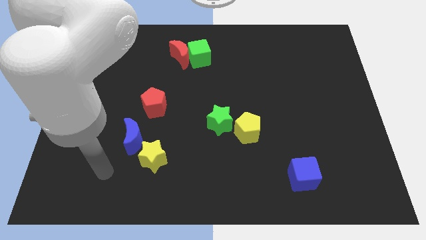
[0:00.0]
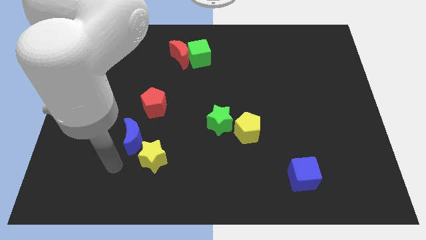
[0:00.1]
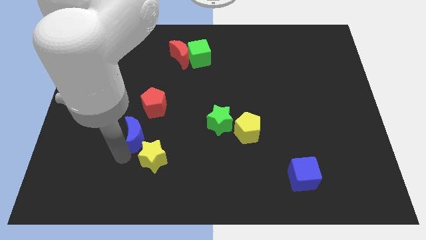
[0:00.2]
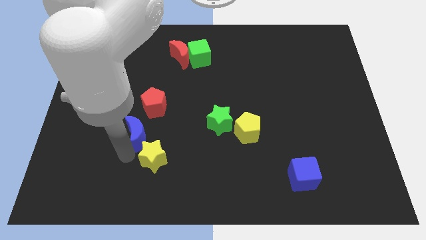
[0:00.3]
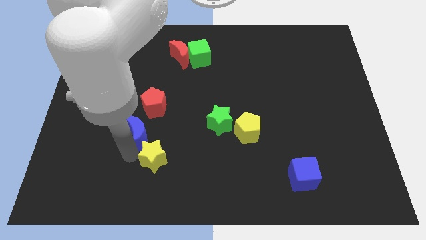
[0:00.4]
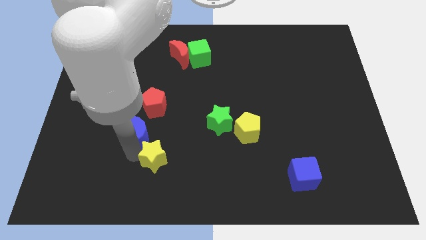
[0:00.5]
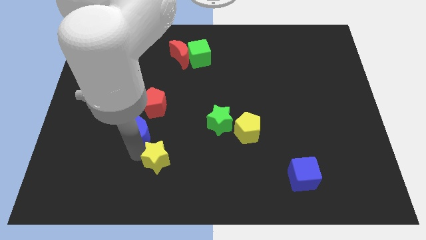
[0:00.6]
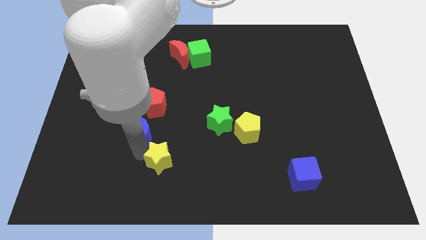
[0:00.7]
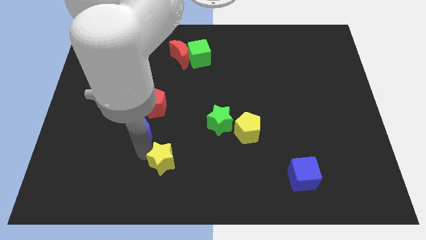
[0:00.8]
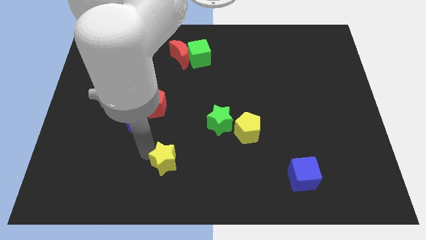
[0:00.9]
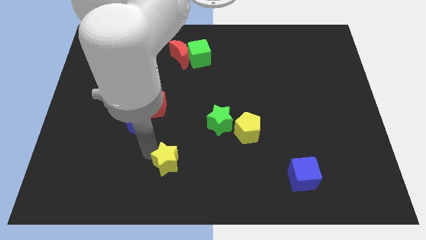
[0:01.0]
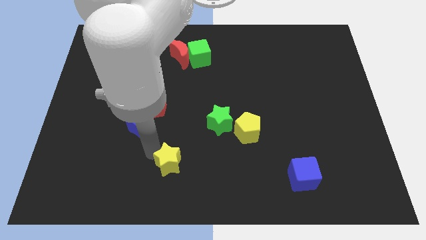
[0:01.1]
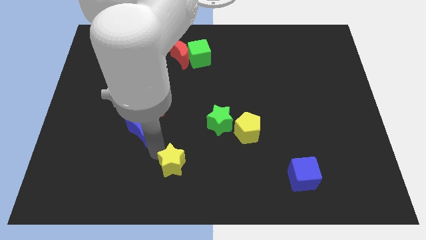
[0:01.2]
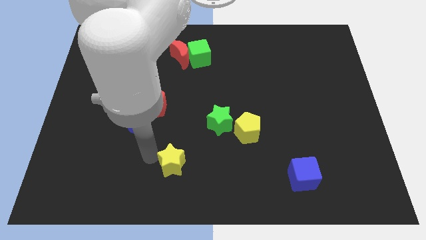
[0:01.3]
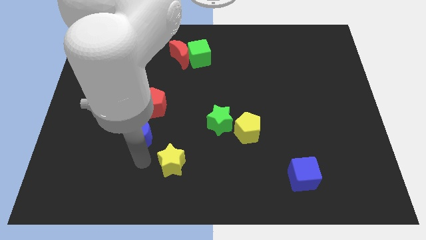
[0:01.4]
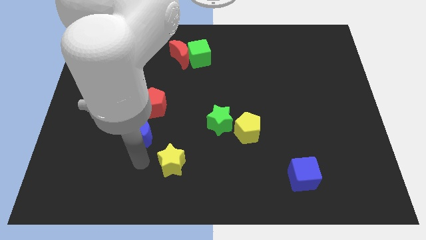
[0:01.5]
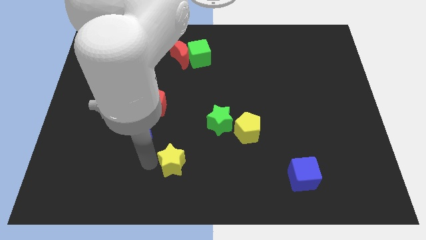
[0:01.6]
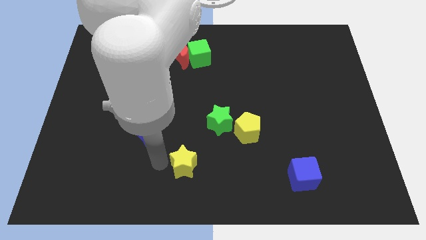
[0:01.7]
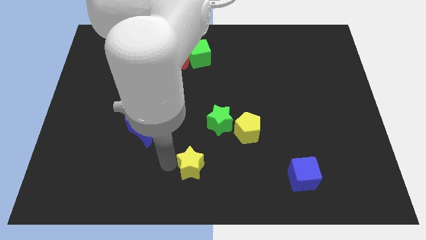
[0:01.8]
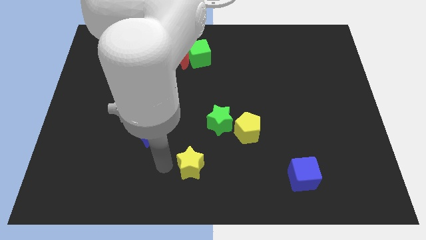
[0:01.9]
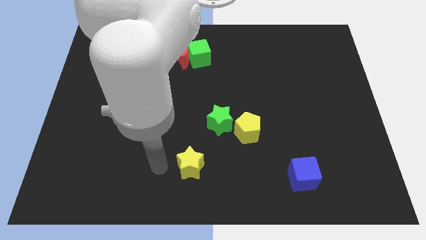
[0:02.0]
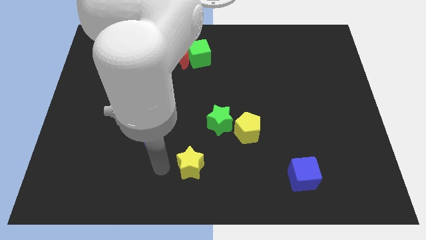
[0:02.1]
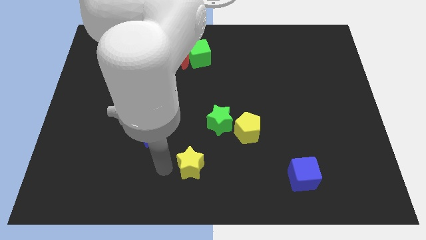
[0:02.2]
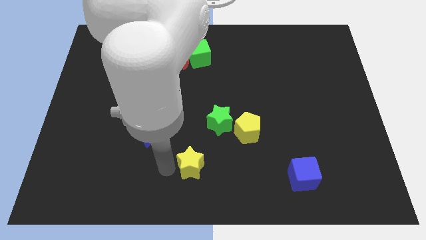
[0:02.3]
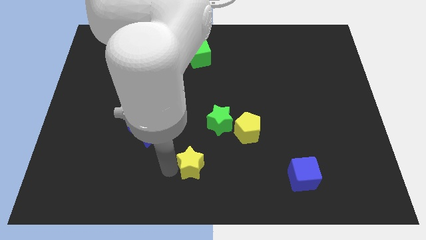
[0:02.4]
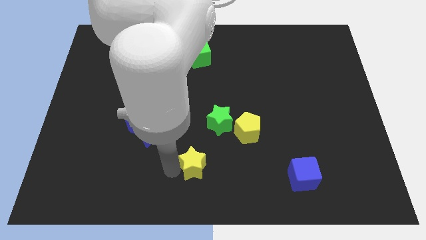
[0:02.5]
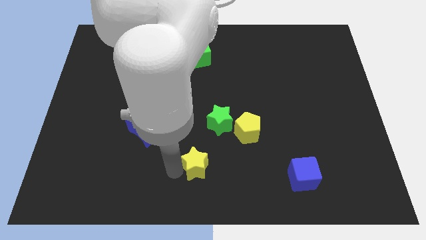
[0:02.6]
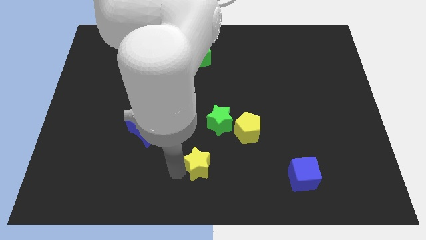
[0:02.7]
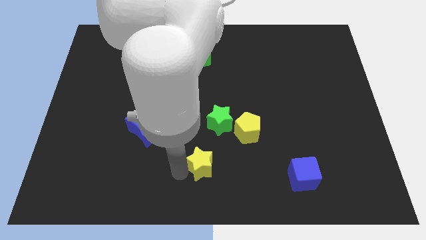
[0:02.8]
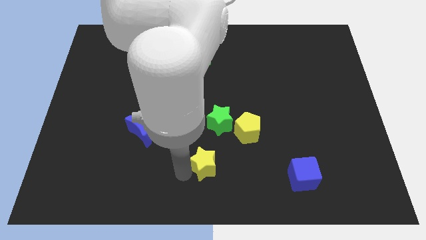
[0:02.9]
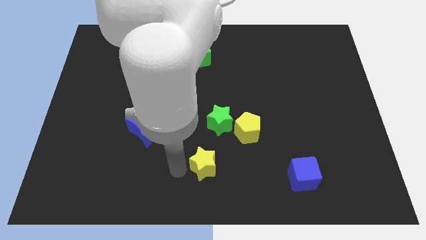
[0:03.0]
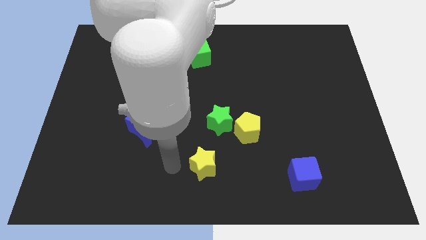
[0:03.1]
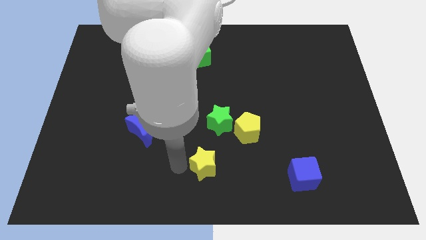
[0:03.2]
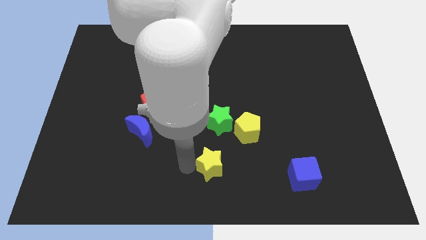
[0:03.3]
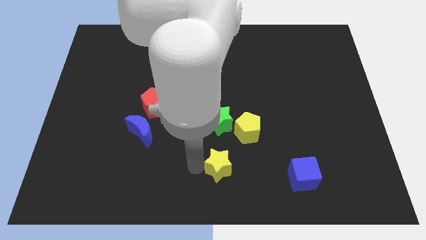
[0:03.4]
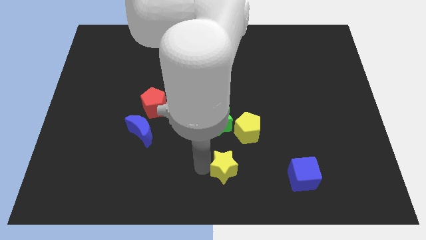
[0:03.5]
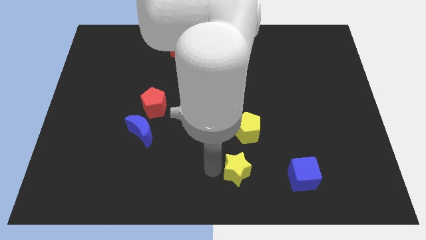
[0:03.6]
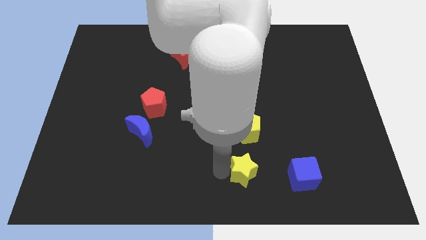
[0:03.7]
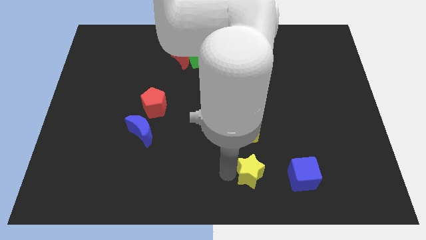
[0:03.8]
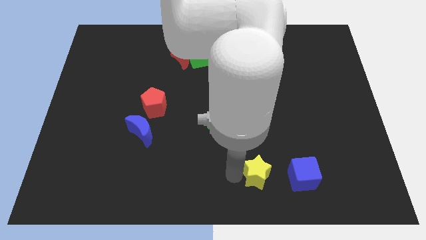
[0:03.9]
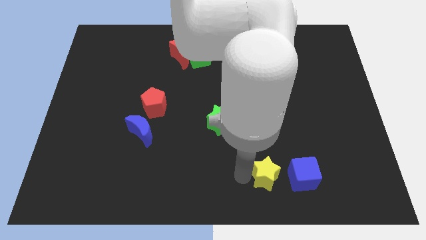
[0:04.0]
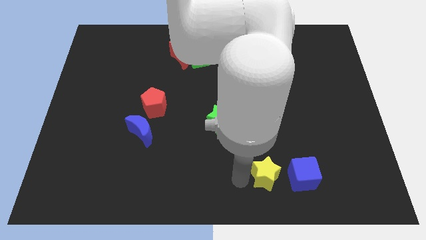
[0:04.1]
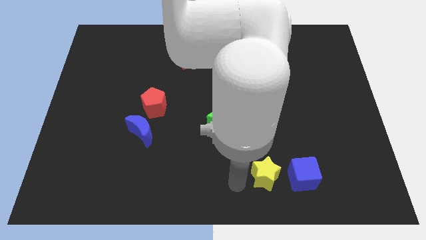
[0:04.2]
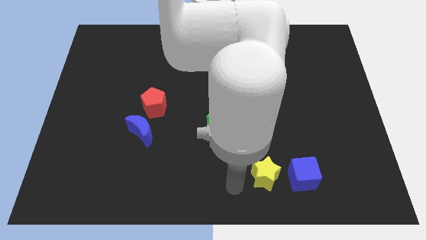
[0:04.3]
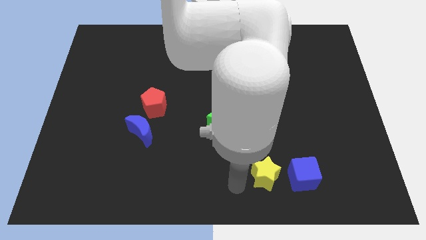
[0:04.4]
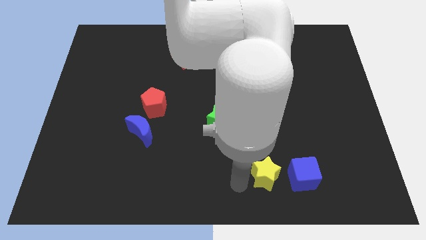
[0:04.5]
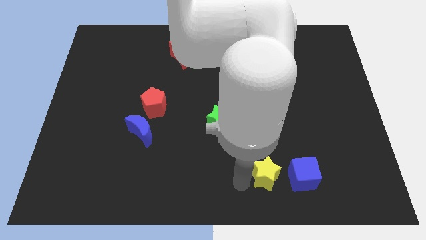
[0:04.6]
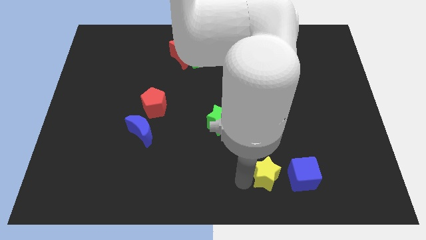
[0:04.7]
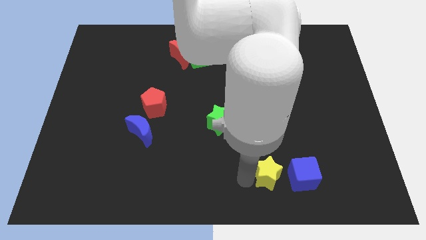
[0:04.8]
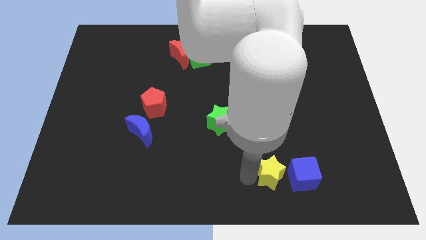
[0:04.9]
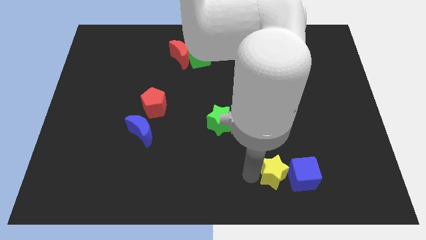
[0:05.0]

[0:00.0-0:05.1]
push the yellow star next to the blue cube

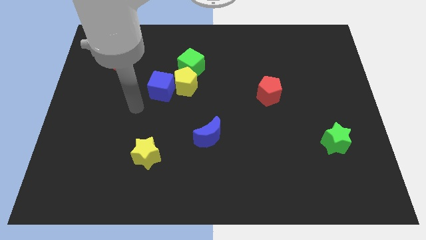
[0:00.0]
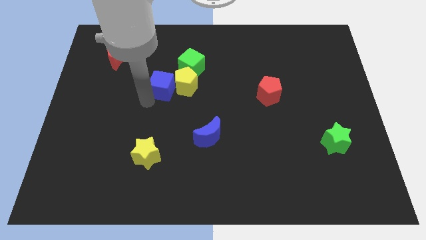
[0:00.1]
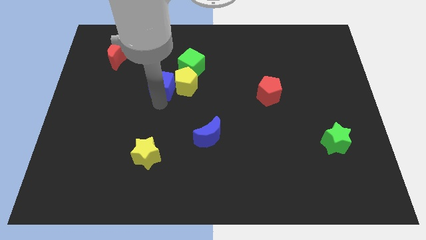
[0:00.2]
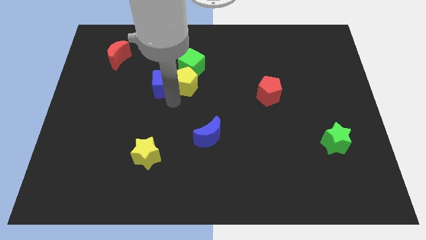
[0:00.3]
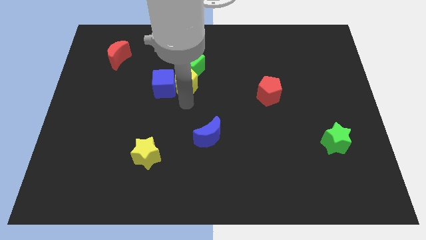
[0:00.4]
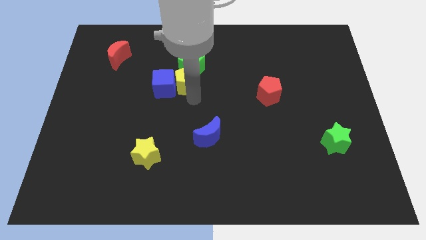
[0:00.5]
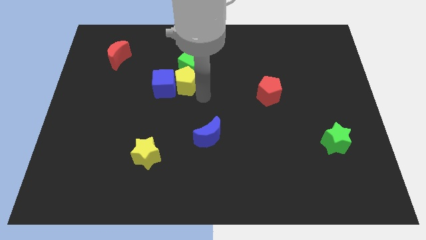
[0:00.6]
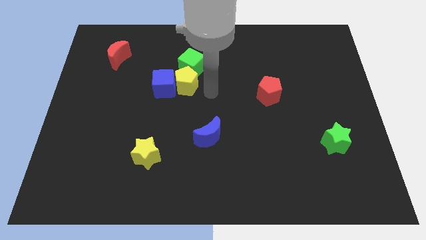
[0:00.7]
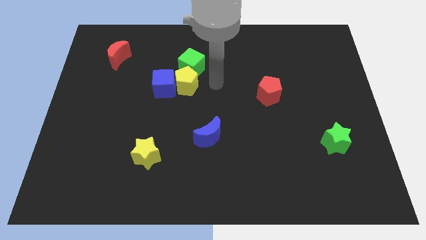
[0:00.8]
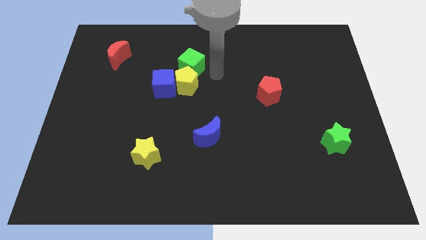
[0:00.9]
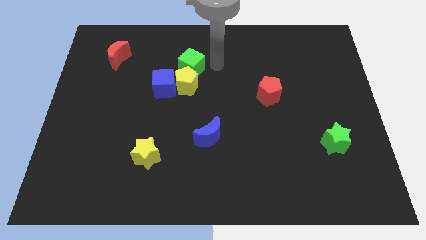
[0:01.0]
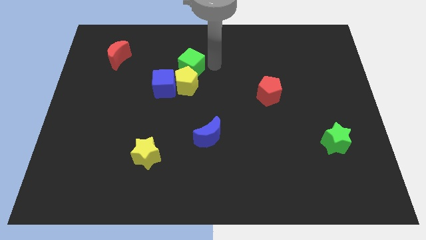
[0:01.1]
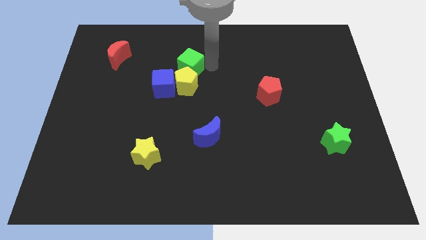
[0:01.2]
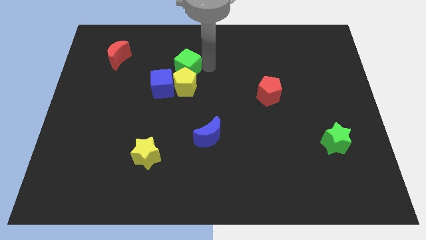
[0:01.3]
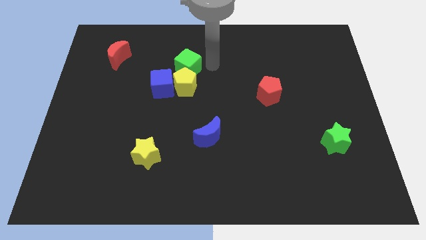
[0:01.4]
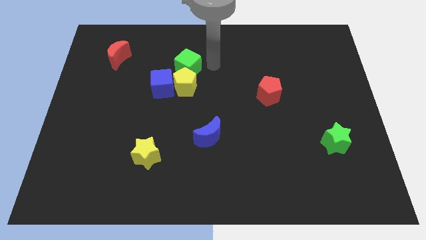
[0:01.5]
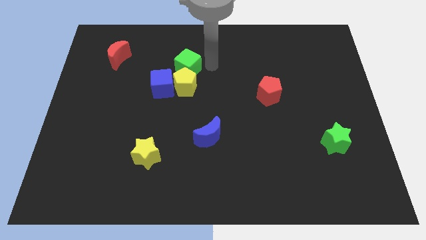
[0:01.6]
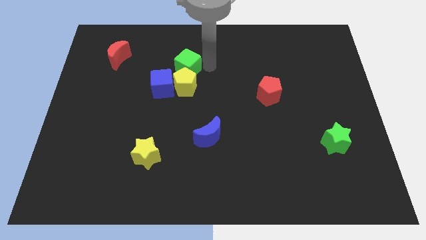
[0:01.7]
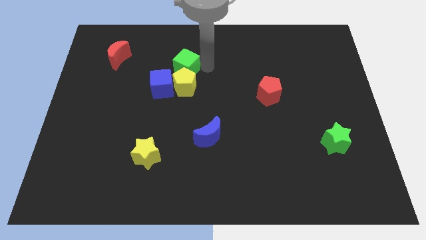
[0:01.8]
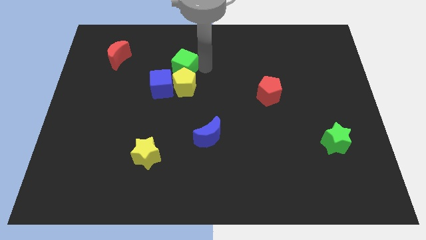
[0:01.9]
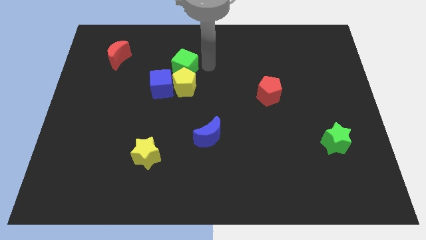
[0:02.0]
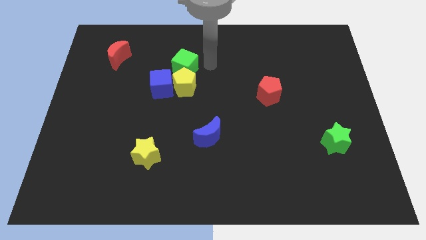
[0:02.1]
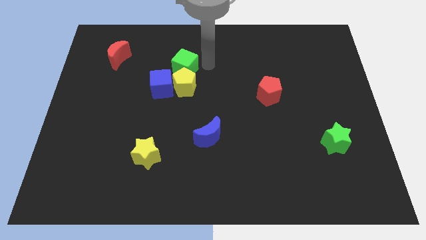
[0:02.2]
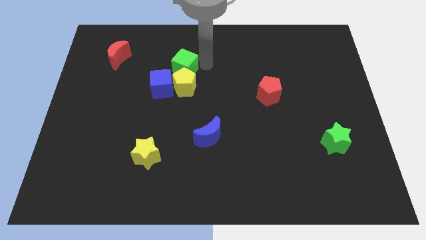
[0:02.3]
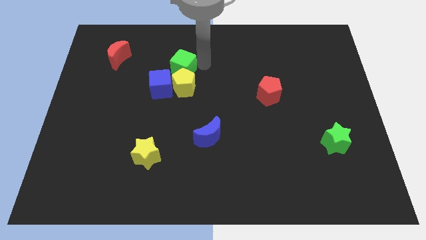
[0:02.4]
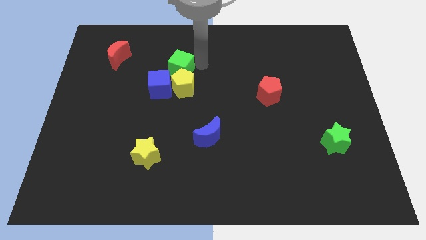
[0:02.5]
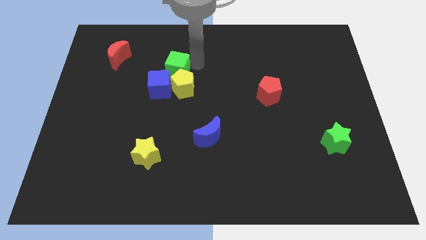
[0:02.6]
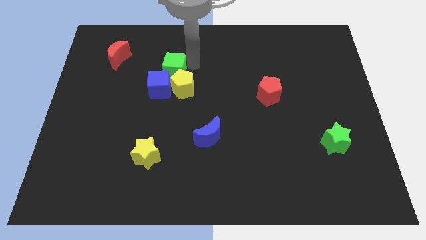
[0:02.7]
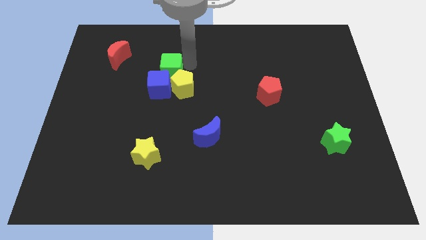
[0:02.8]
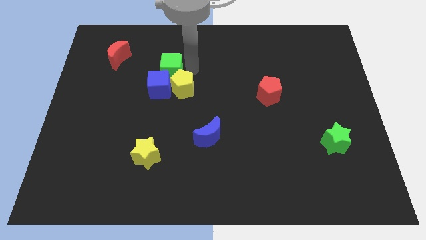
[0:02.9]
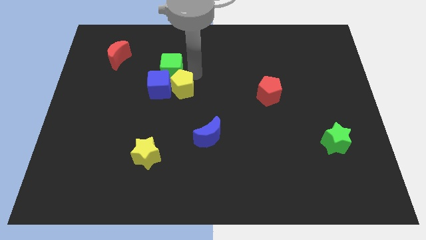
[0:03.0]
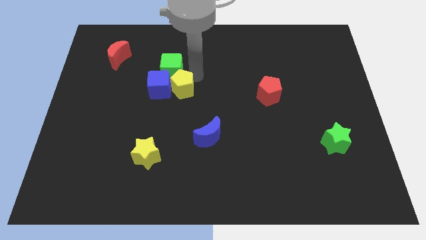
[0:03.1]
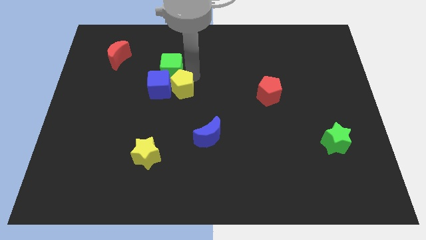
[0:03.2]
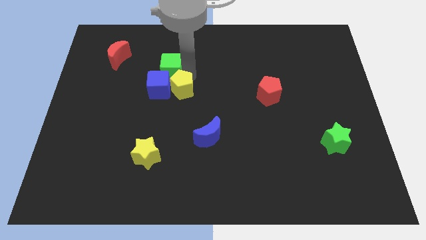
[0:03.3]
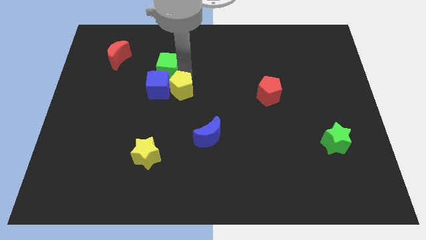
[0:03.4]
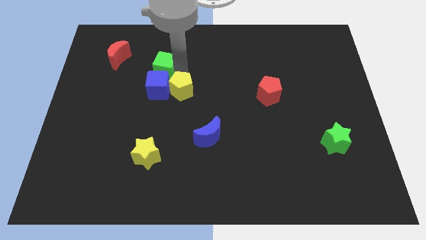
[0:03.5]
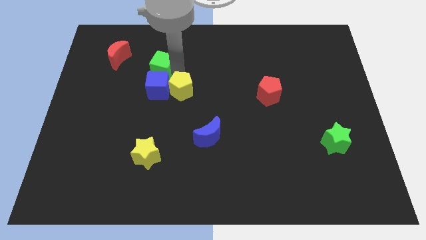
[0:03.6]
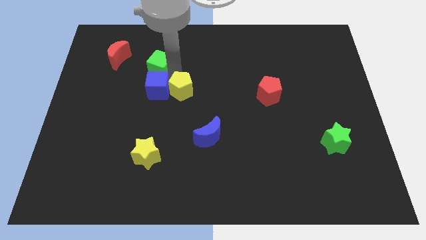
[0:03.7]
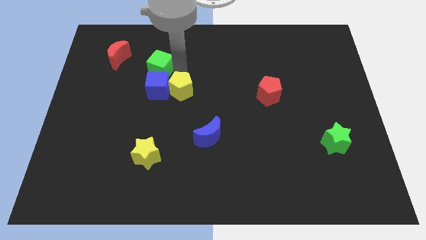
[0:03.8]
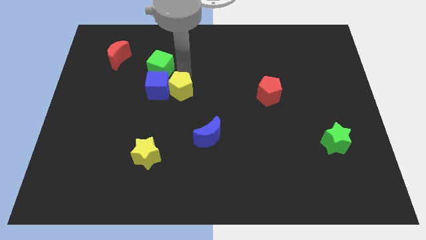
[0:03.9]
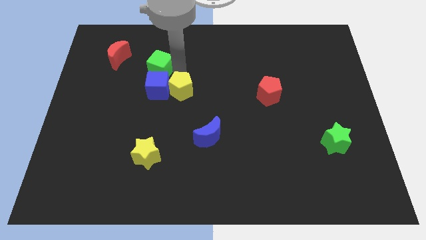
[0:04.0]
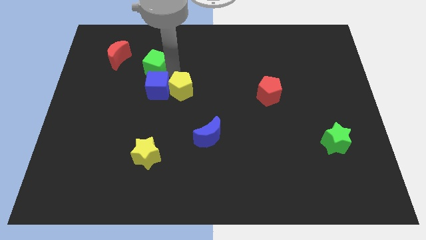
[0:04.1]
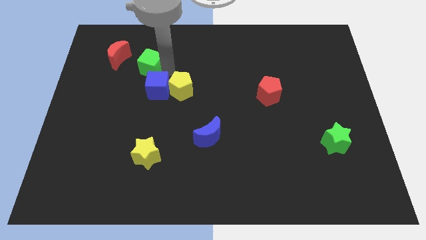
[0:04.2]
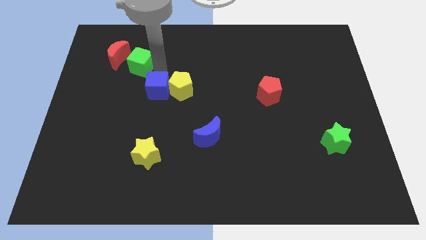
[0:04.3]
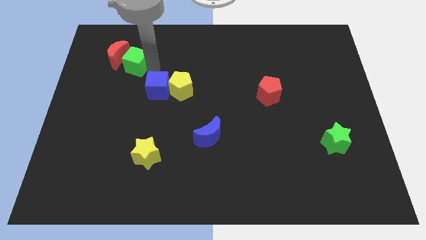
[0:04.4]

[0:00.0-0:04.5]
push the green cube to the red moon
